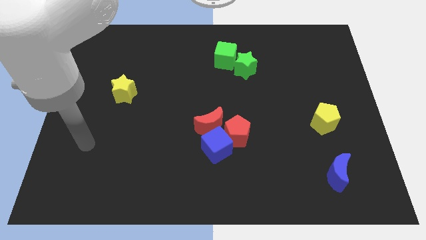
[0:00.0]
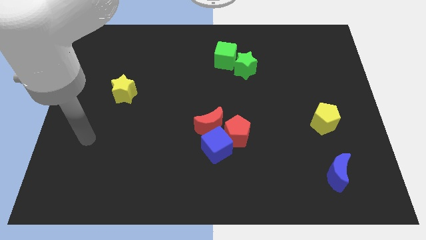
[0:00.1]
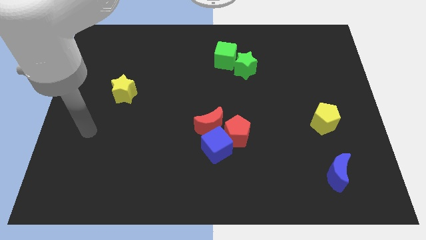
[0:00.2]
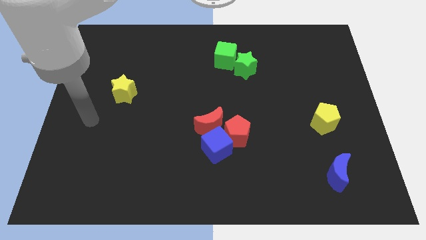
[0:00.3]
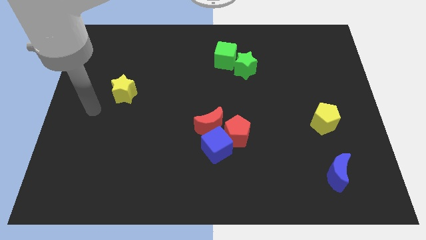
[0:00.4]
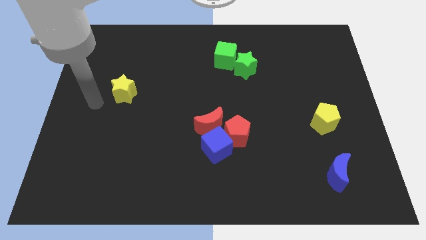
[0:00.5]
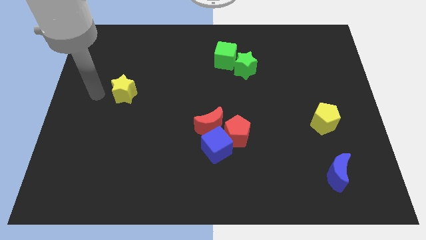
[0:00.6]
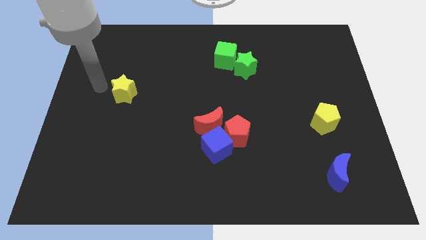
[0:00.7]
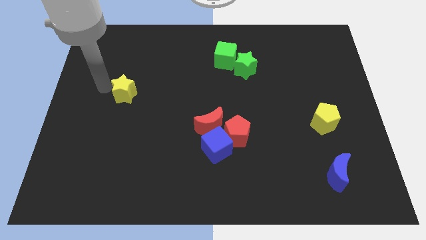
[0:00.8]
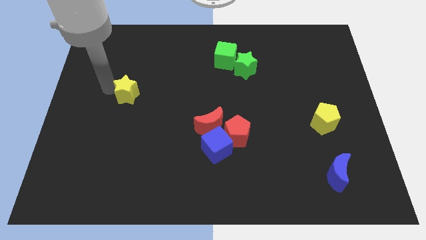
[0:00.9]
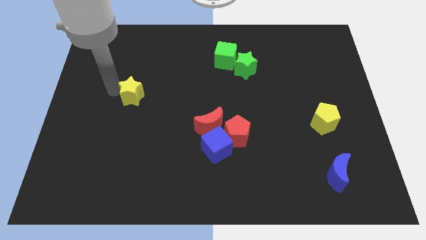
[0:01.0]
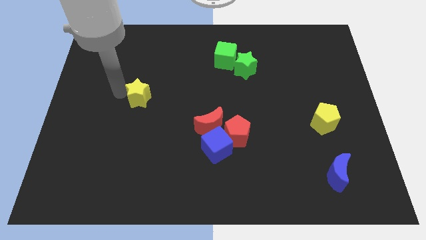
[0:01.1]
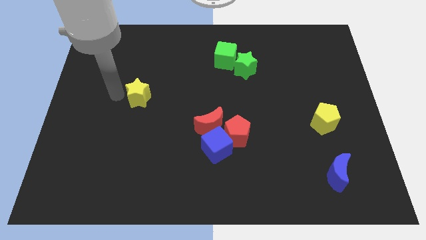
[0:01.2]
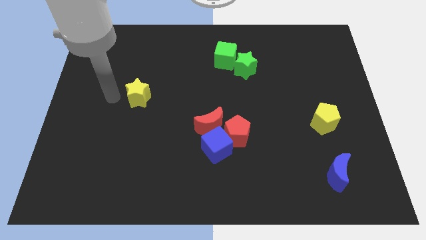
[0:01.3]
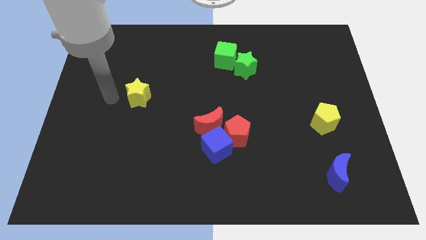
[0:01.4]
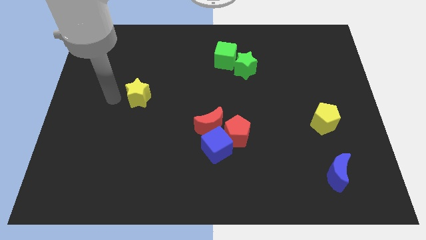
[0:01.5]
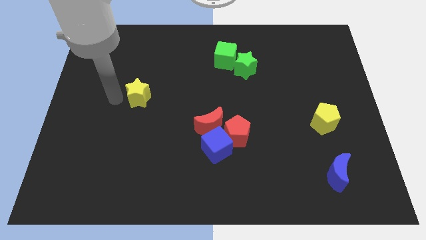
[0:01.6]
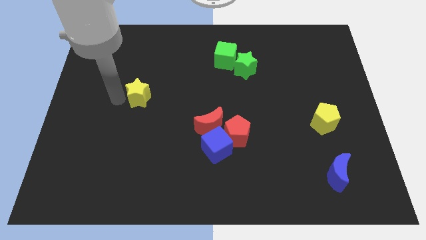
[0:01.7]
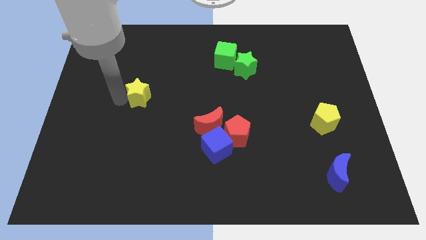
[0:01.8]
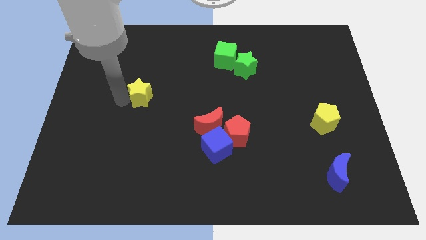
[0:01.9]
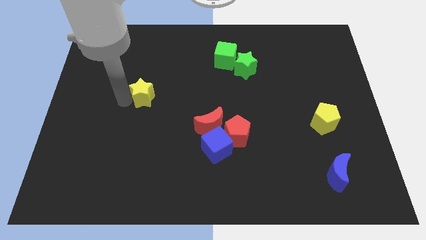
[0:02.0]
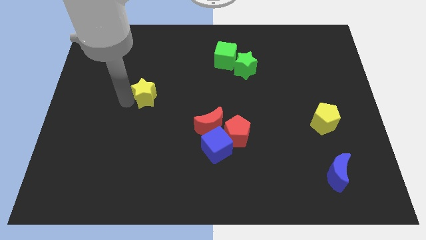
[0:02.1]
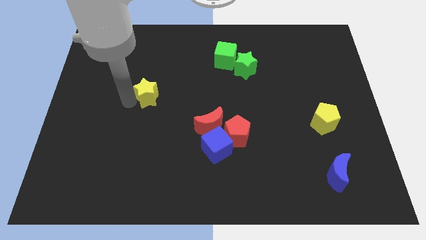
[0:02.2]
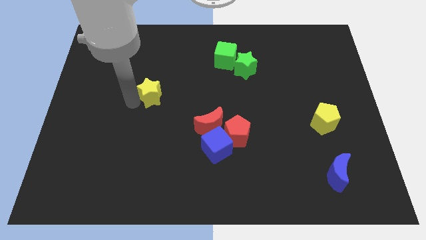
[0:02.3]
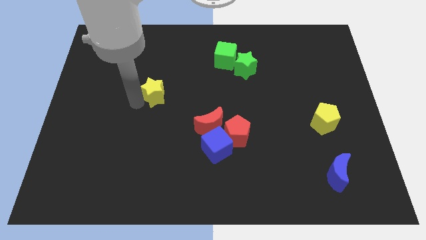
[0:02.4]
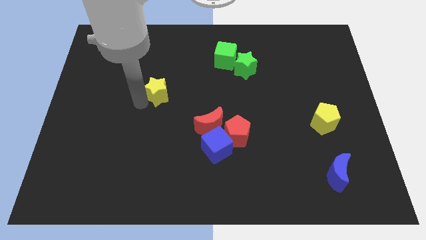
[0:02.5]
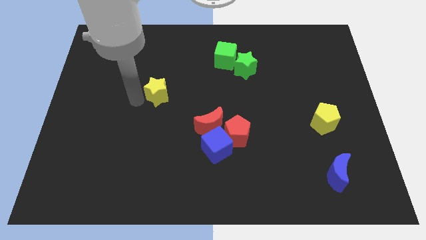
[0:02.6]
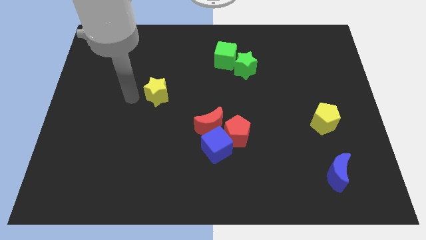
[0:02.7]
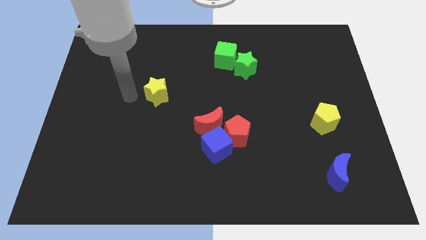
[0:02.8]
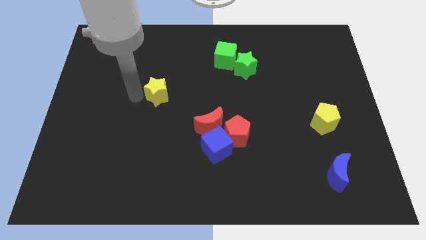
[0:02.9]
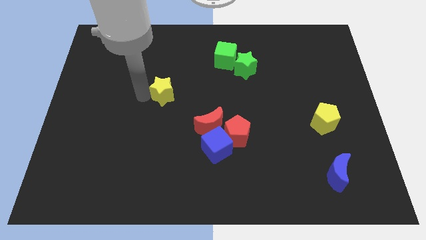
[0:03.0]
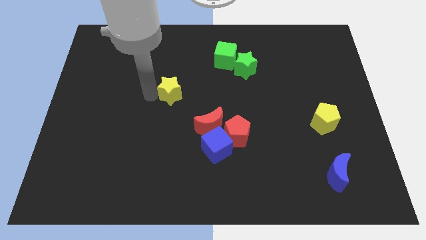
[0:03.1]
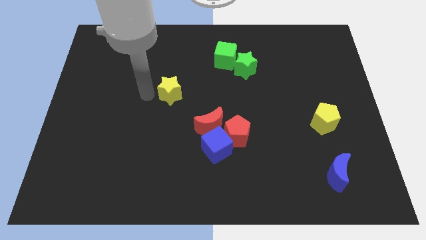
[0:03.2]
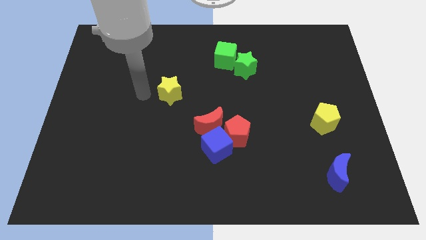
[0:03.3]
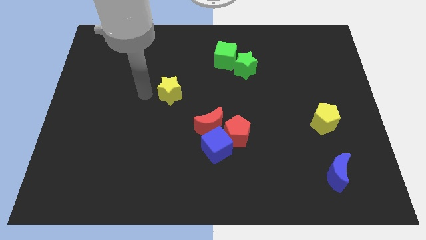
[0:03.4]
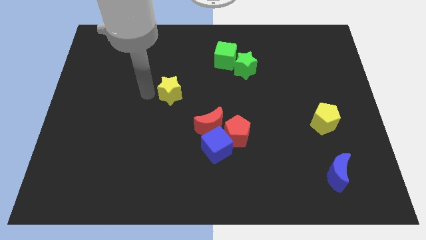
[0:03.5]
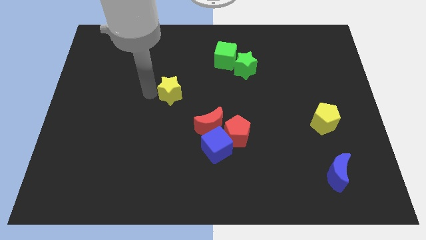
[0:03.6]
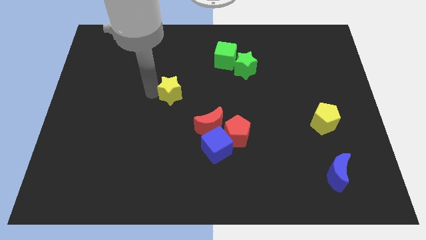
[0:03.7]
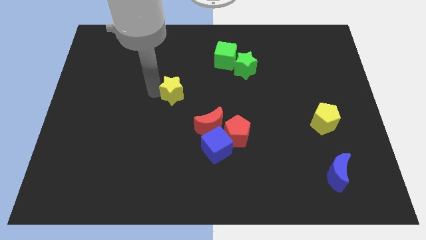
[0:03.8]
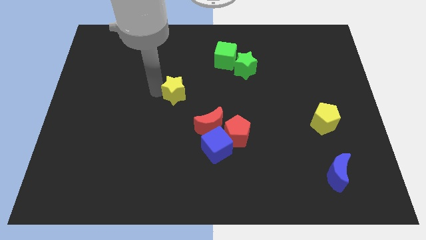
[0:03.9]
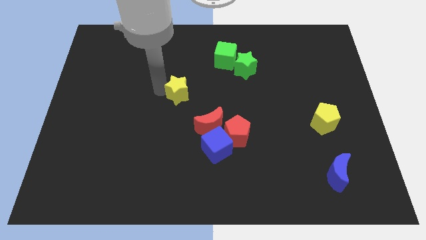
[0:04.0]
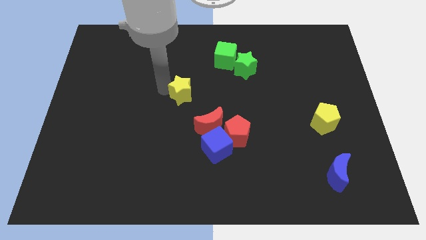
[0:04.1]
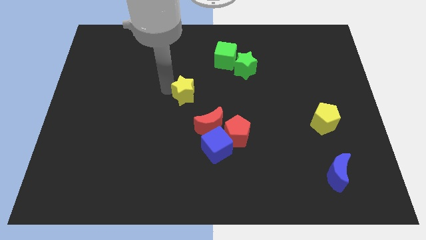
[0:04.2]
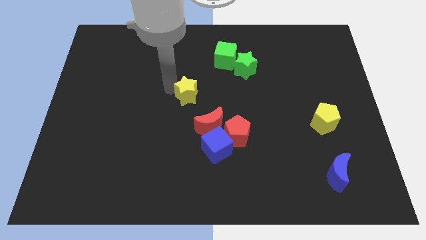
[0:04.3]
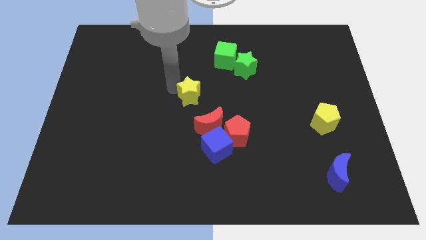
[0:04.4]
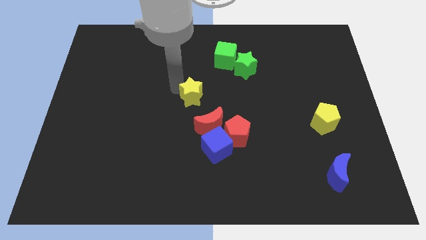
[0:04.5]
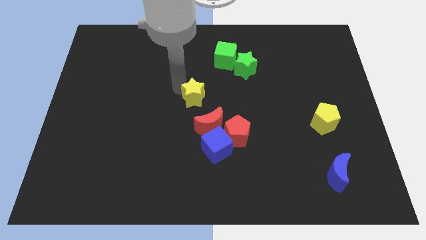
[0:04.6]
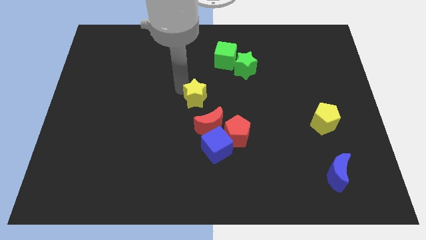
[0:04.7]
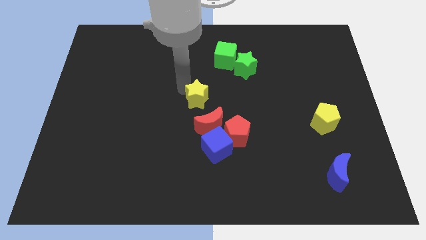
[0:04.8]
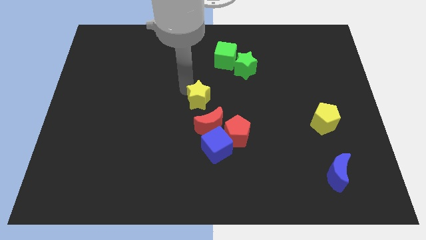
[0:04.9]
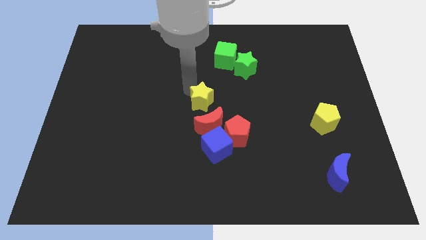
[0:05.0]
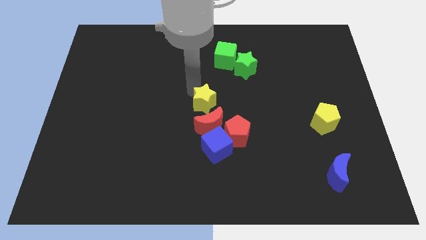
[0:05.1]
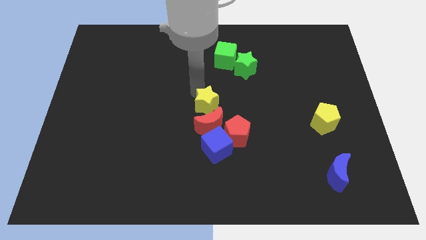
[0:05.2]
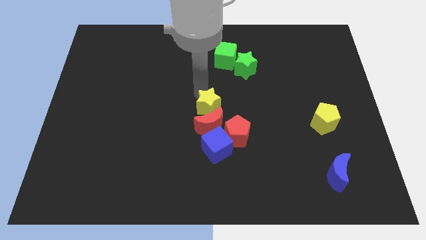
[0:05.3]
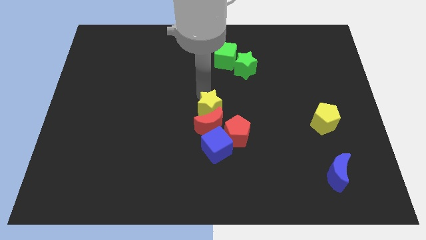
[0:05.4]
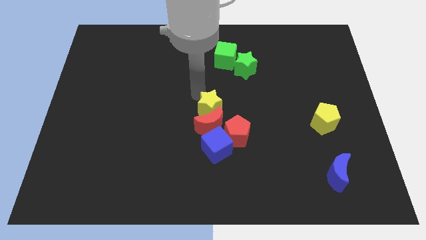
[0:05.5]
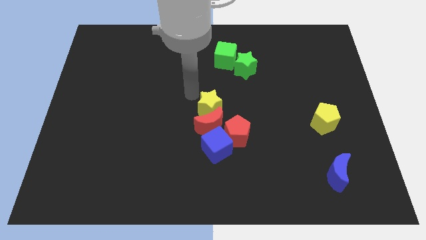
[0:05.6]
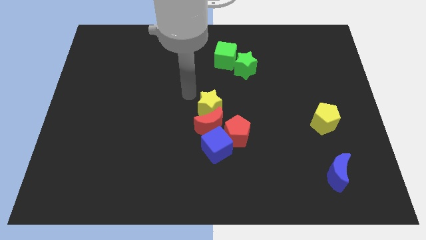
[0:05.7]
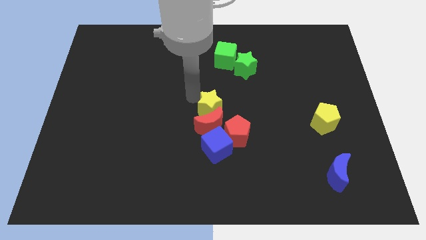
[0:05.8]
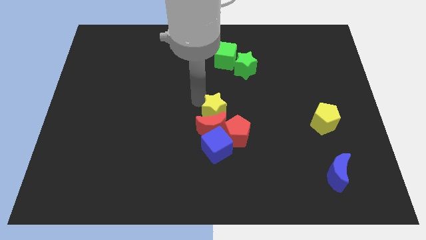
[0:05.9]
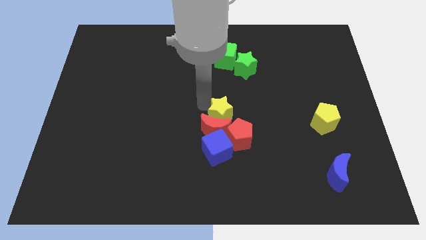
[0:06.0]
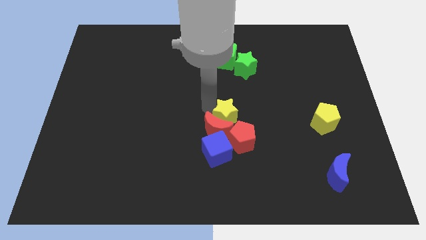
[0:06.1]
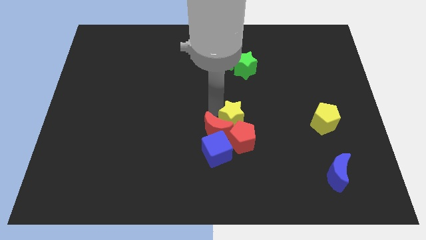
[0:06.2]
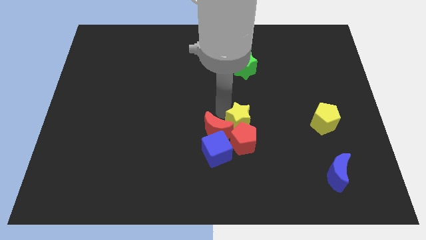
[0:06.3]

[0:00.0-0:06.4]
put the yellow star next to the red pentagon

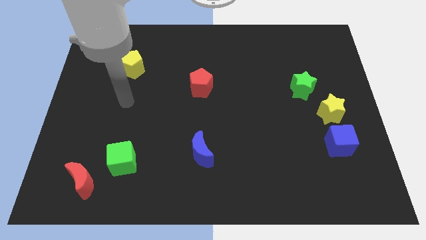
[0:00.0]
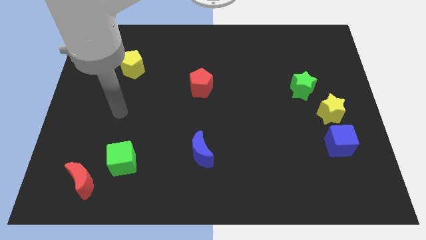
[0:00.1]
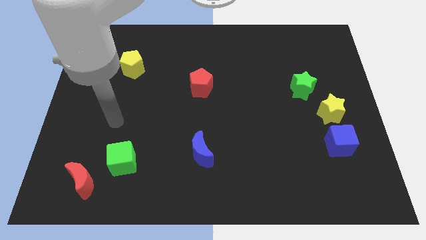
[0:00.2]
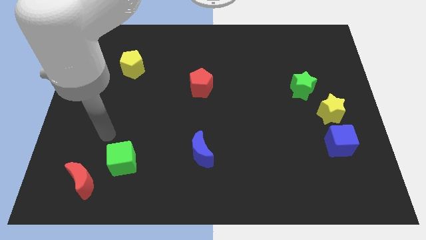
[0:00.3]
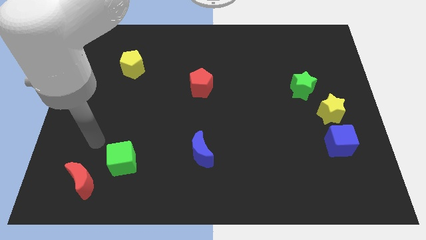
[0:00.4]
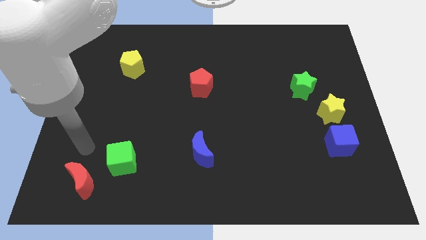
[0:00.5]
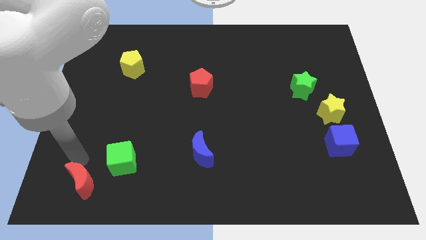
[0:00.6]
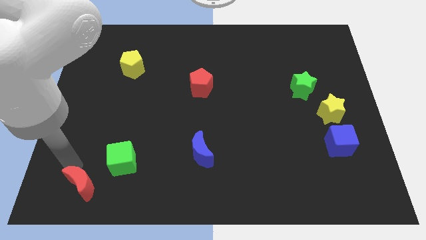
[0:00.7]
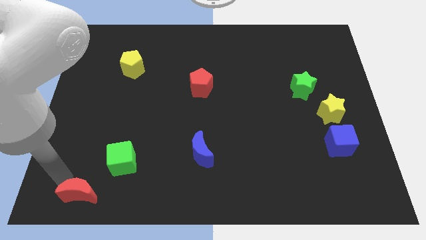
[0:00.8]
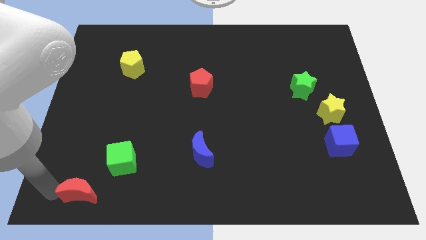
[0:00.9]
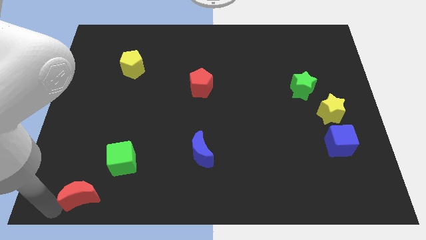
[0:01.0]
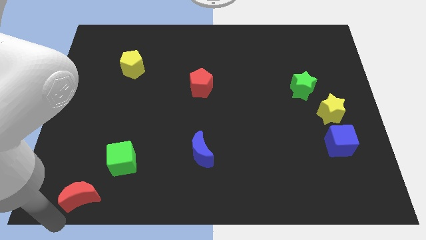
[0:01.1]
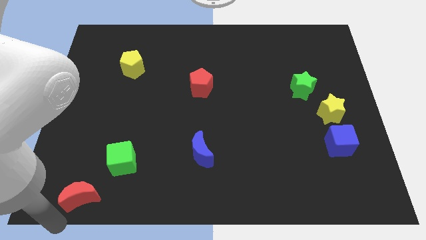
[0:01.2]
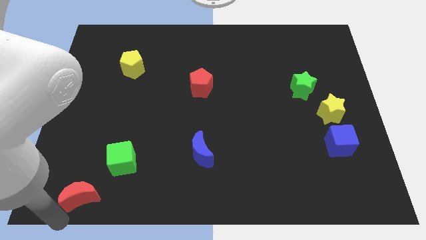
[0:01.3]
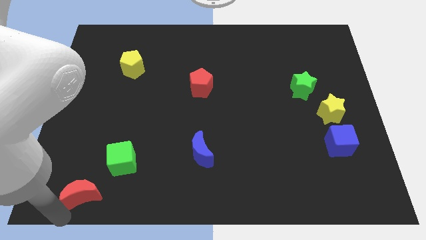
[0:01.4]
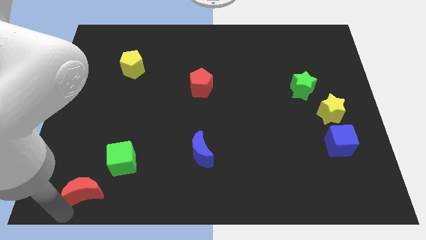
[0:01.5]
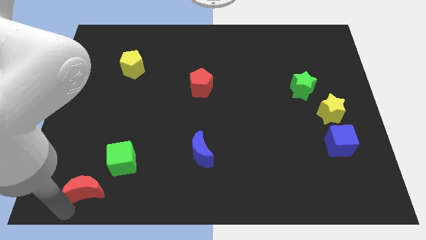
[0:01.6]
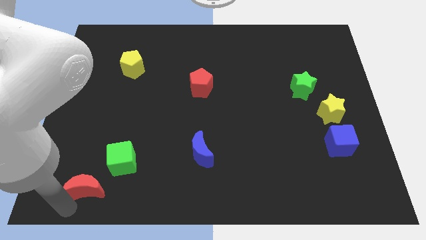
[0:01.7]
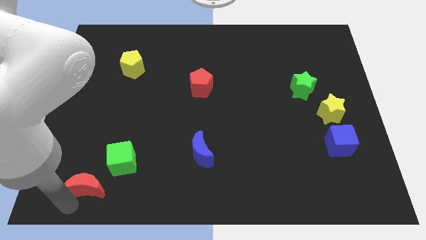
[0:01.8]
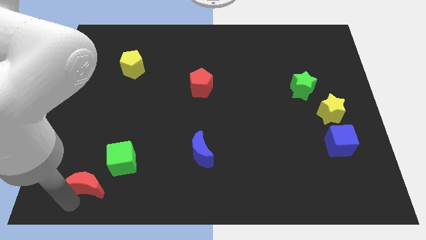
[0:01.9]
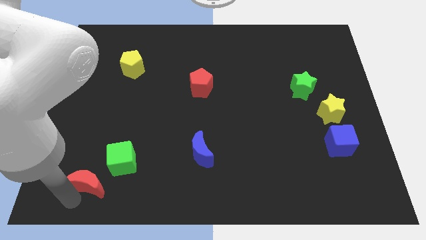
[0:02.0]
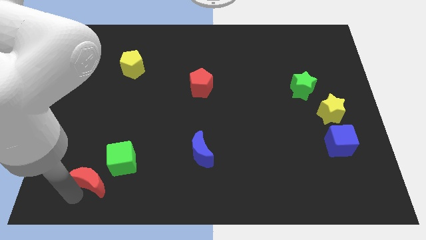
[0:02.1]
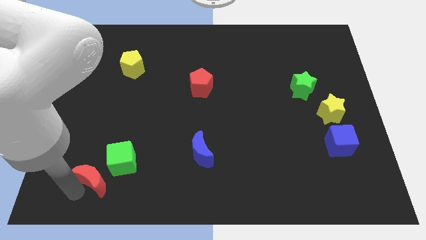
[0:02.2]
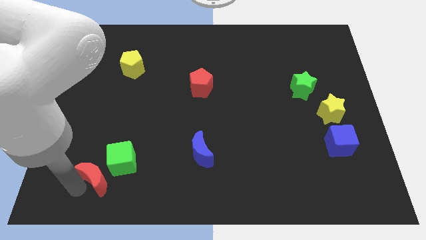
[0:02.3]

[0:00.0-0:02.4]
move the red moon next to the green cube
